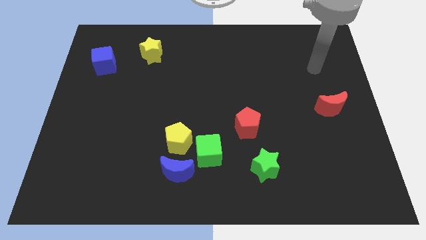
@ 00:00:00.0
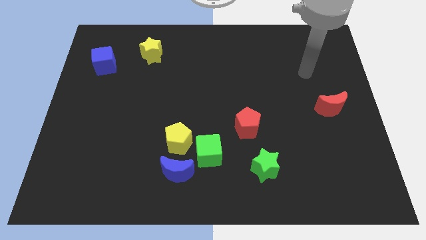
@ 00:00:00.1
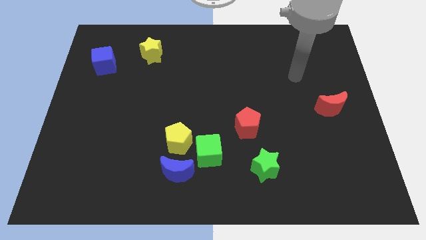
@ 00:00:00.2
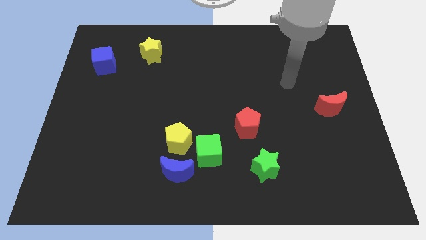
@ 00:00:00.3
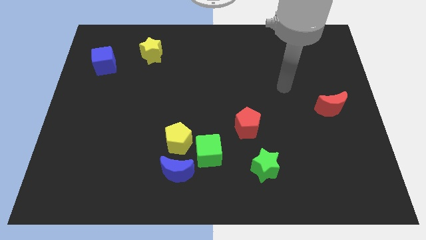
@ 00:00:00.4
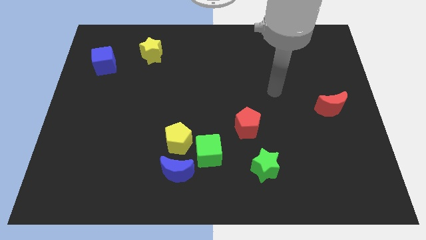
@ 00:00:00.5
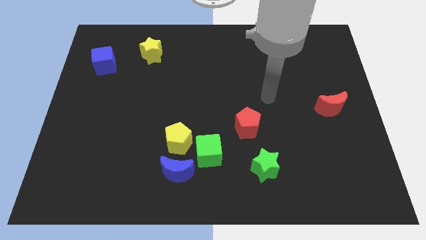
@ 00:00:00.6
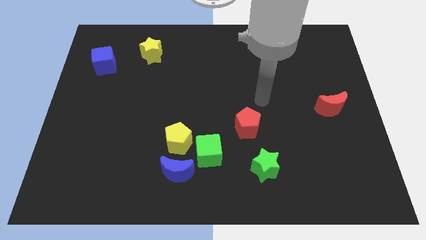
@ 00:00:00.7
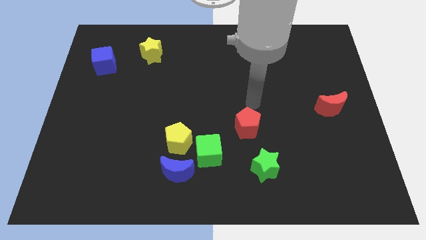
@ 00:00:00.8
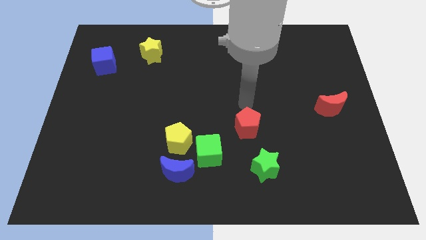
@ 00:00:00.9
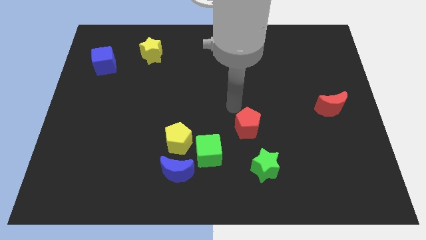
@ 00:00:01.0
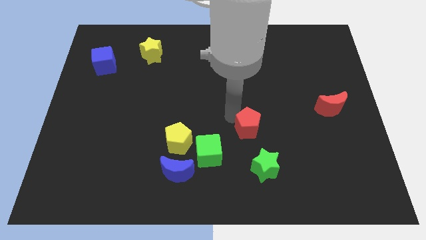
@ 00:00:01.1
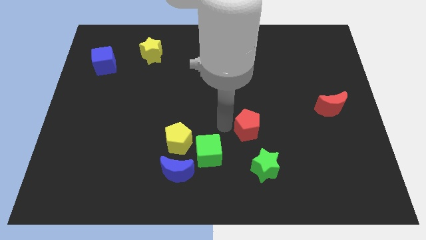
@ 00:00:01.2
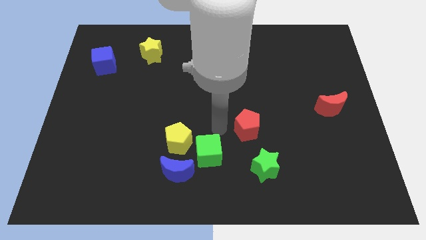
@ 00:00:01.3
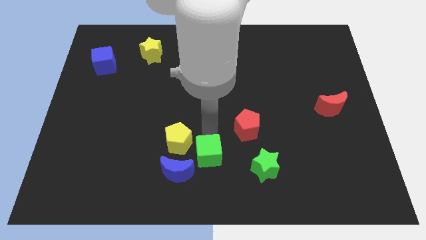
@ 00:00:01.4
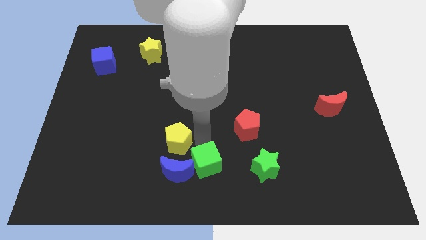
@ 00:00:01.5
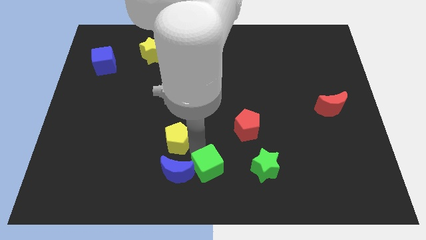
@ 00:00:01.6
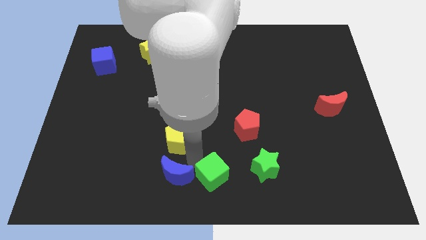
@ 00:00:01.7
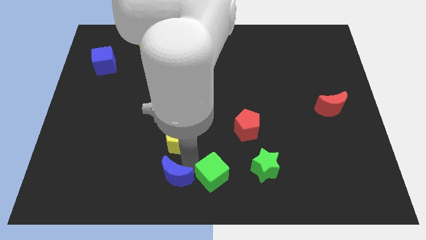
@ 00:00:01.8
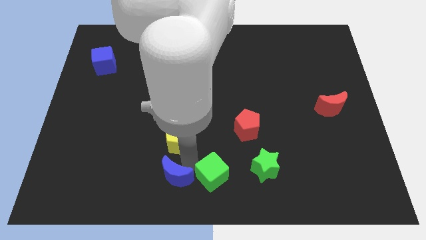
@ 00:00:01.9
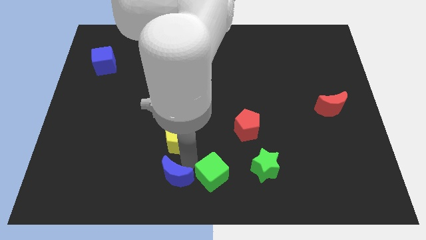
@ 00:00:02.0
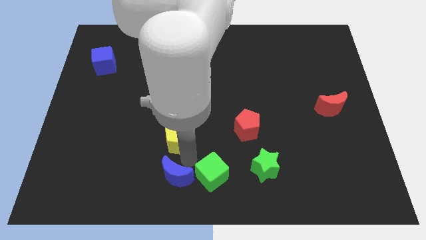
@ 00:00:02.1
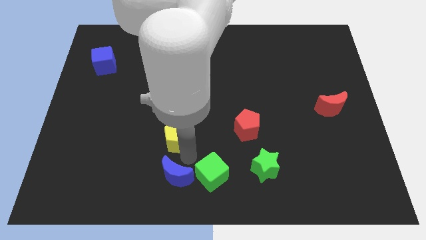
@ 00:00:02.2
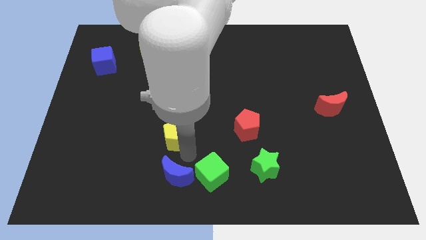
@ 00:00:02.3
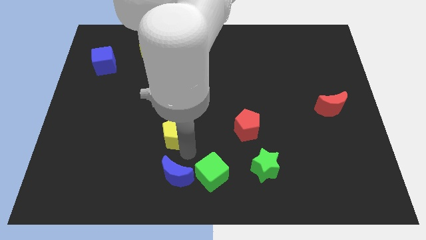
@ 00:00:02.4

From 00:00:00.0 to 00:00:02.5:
move the yellow pentagon away from the green cube and blue moon

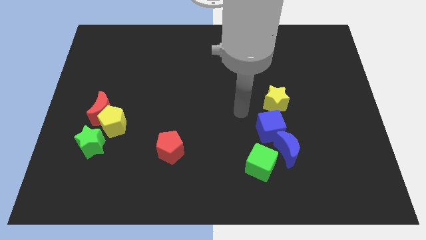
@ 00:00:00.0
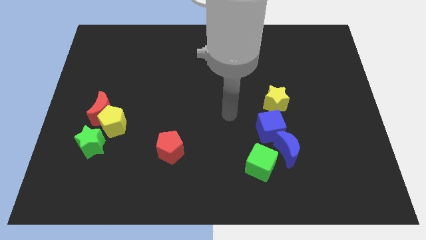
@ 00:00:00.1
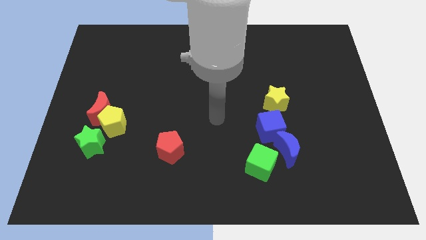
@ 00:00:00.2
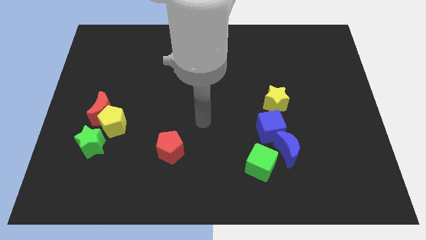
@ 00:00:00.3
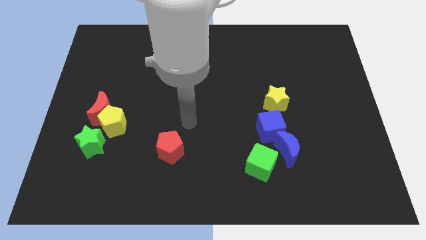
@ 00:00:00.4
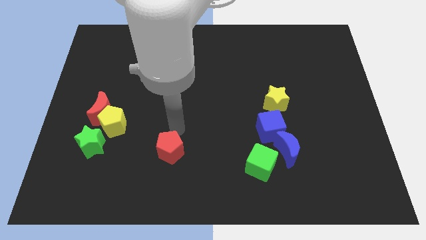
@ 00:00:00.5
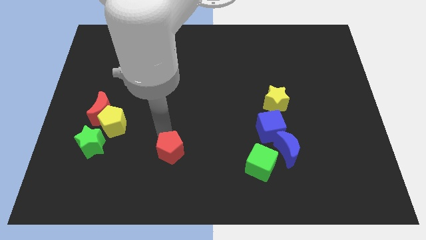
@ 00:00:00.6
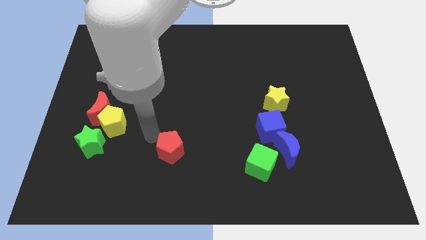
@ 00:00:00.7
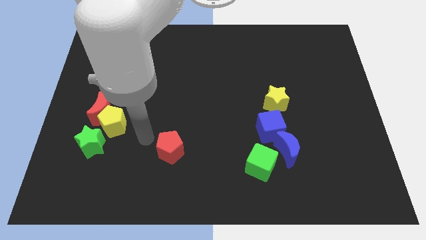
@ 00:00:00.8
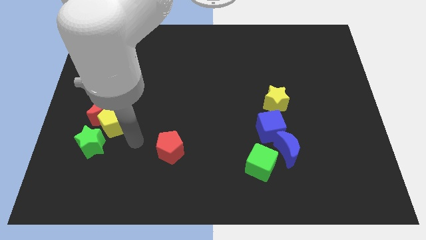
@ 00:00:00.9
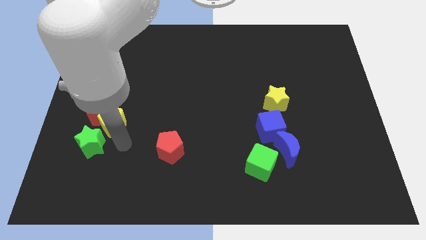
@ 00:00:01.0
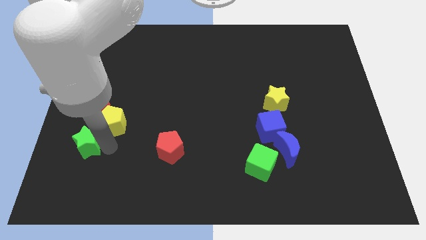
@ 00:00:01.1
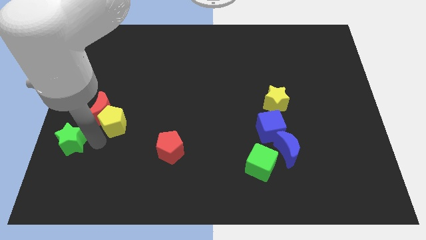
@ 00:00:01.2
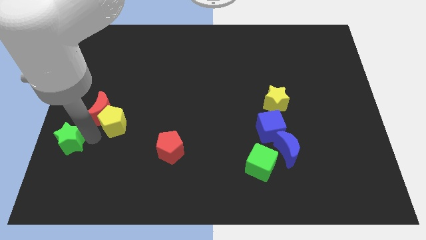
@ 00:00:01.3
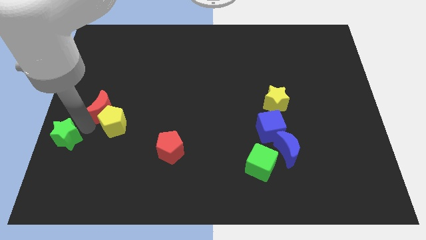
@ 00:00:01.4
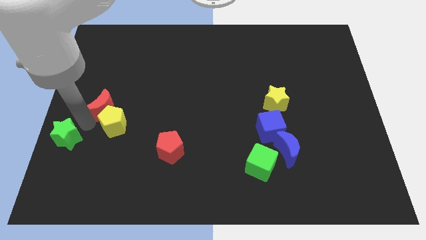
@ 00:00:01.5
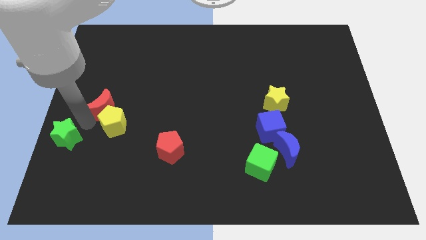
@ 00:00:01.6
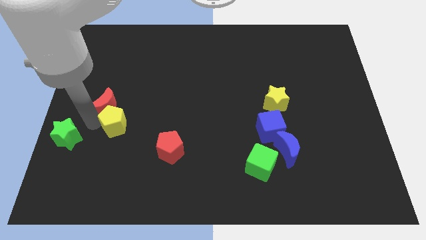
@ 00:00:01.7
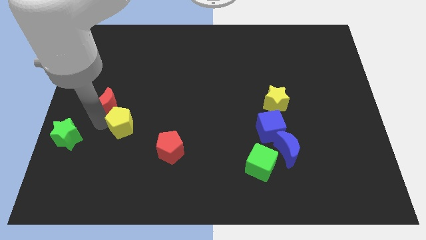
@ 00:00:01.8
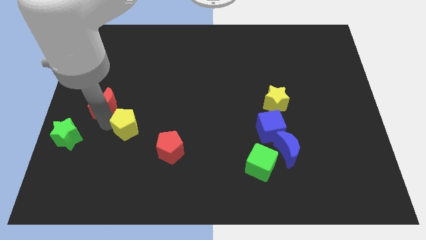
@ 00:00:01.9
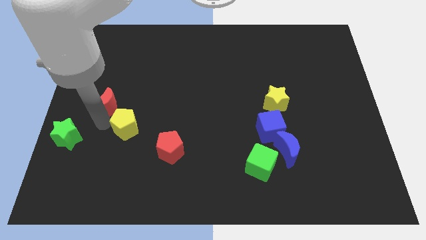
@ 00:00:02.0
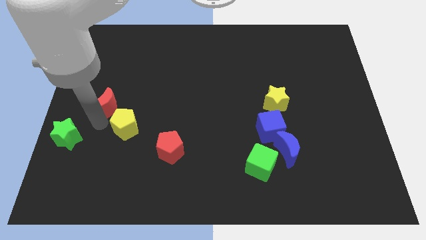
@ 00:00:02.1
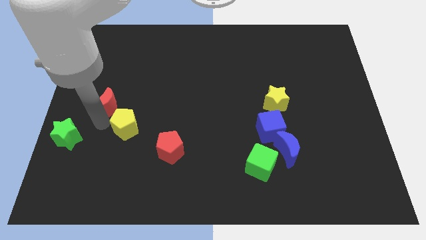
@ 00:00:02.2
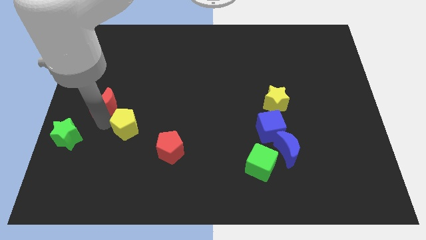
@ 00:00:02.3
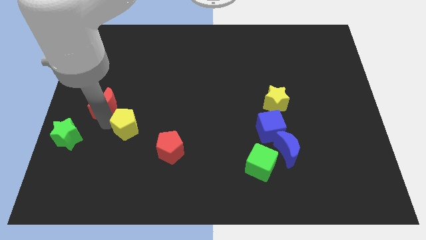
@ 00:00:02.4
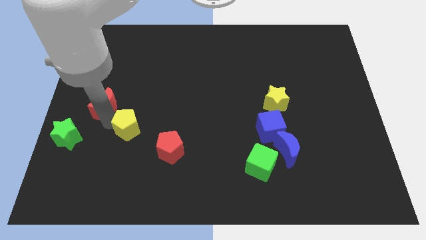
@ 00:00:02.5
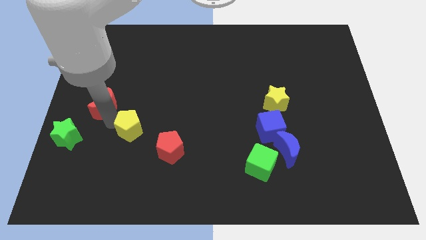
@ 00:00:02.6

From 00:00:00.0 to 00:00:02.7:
move the yellow pentagon away from the red moon and green star

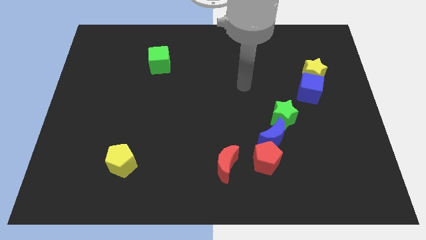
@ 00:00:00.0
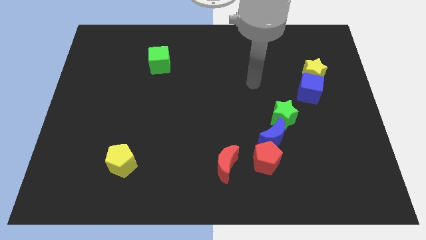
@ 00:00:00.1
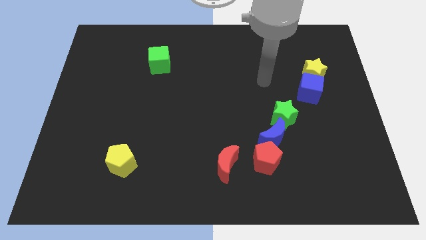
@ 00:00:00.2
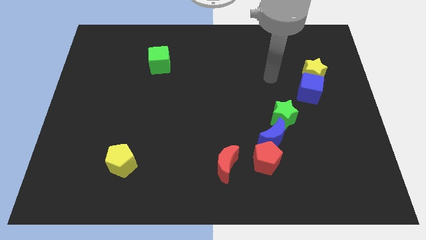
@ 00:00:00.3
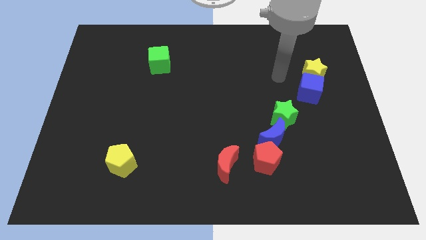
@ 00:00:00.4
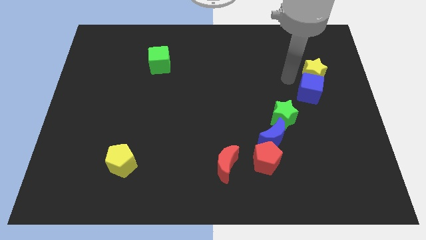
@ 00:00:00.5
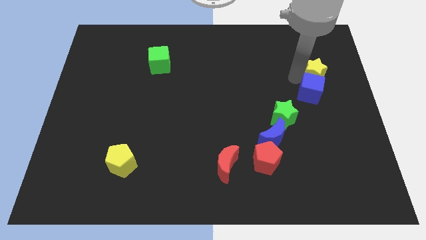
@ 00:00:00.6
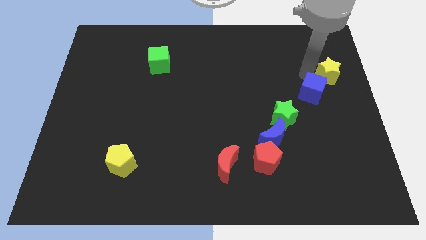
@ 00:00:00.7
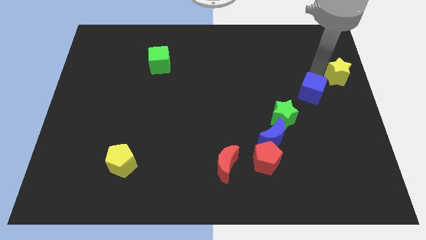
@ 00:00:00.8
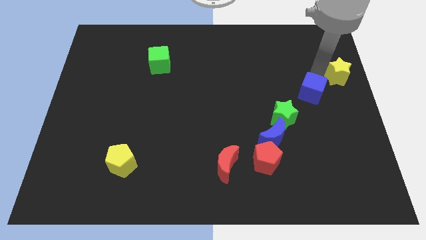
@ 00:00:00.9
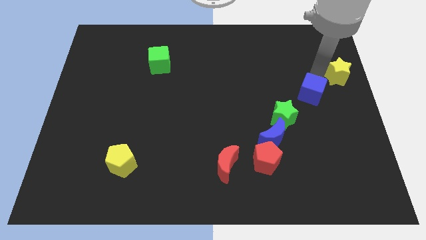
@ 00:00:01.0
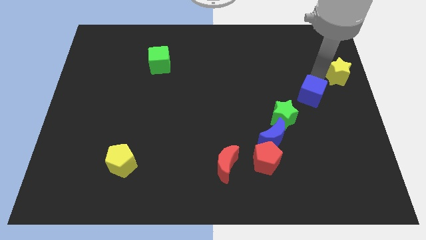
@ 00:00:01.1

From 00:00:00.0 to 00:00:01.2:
separate the blue cube from the yellow star

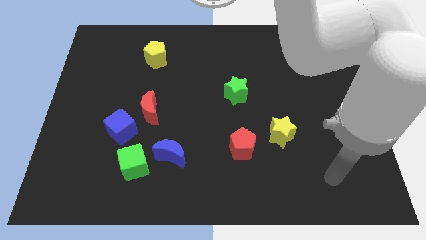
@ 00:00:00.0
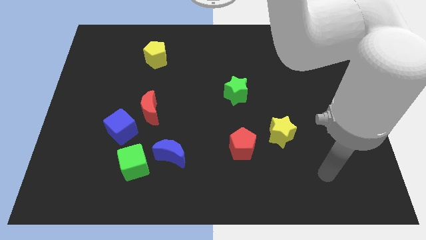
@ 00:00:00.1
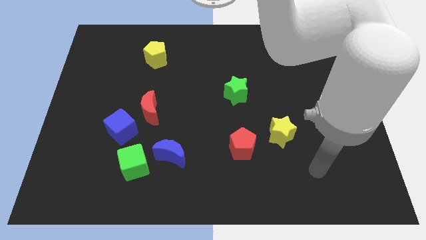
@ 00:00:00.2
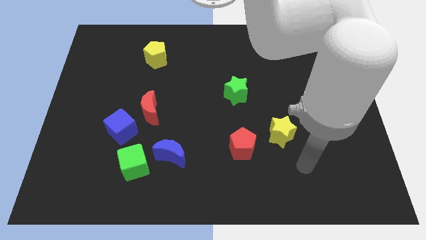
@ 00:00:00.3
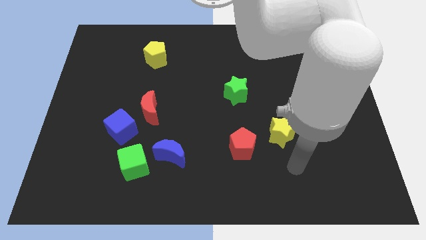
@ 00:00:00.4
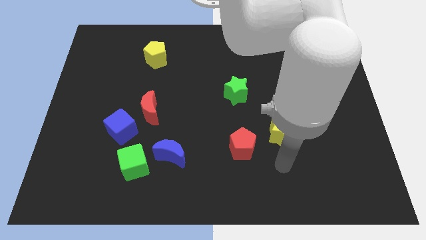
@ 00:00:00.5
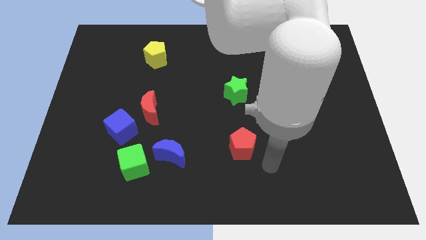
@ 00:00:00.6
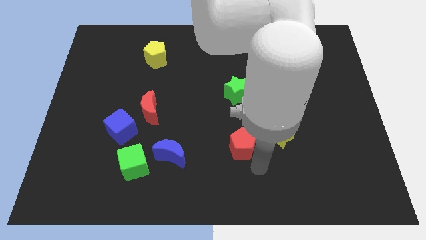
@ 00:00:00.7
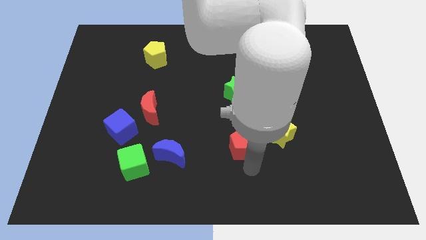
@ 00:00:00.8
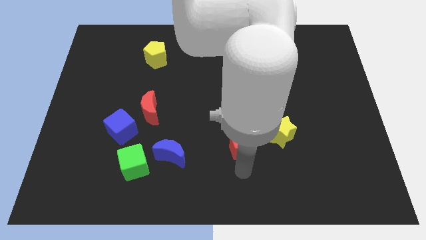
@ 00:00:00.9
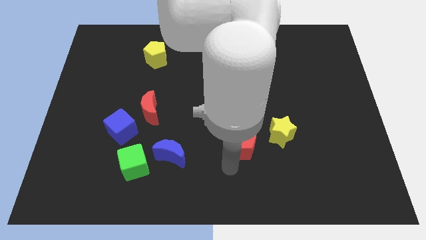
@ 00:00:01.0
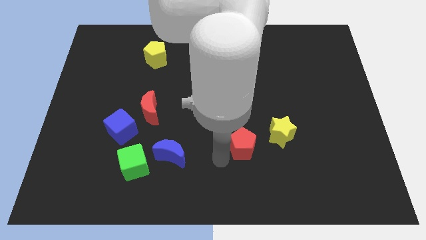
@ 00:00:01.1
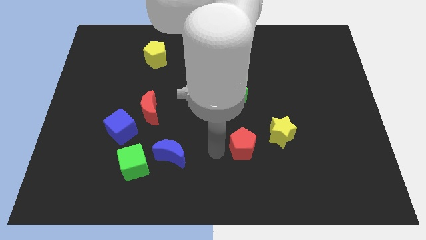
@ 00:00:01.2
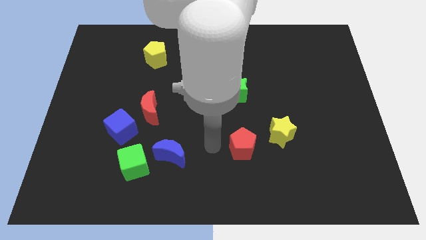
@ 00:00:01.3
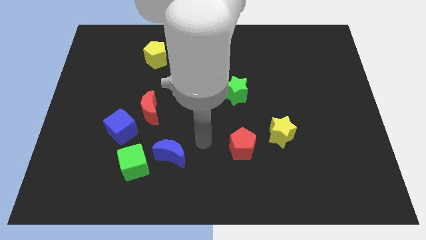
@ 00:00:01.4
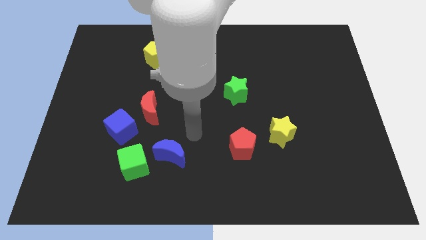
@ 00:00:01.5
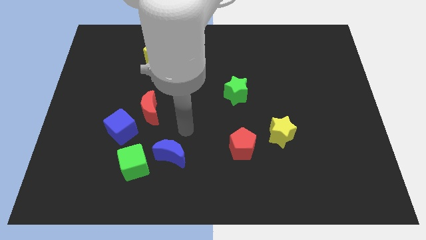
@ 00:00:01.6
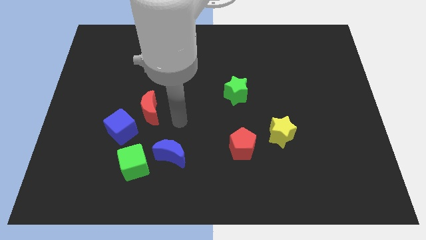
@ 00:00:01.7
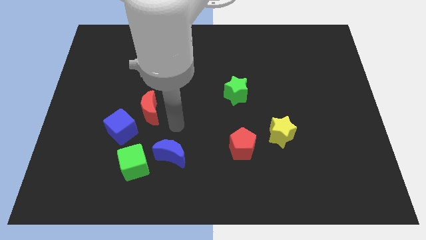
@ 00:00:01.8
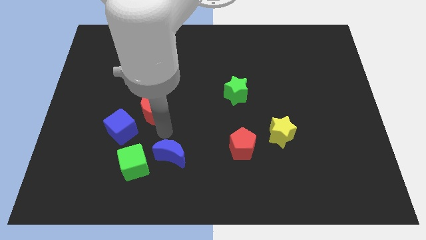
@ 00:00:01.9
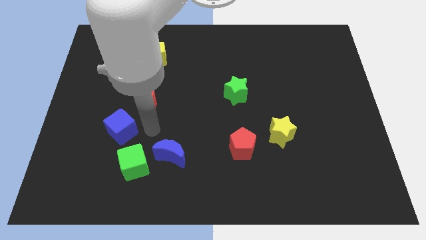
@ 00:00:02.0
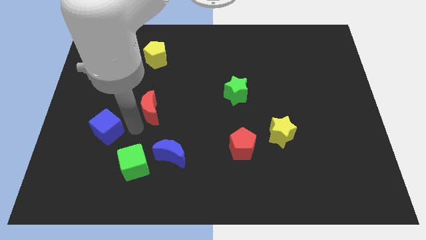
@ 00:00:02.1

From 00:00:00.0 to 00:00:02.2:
move the red moon away from the blue cube

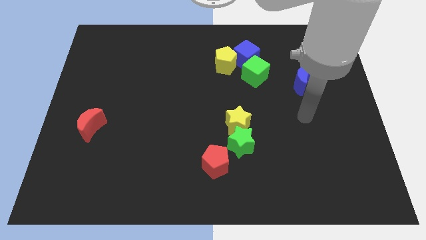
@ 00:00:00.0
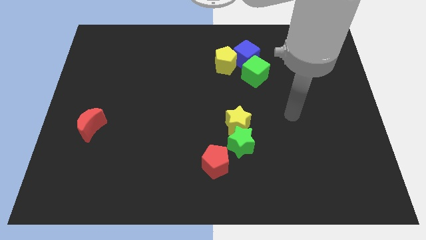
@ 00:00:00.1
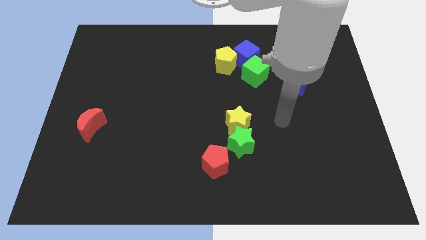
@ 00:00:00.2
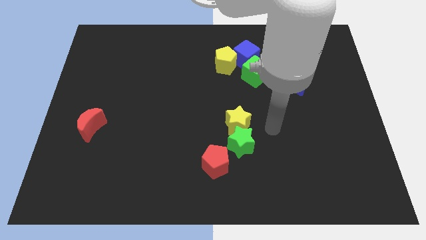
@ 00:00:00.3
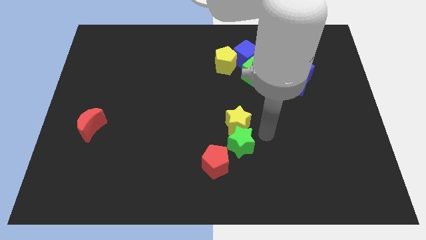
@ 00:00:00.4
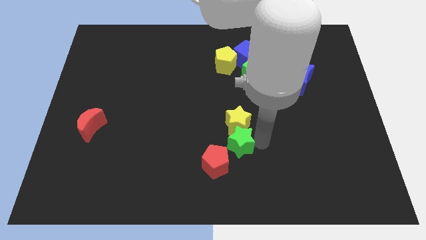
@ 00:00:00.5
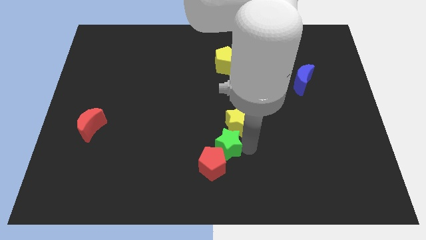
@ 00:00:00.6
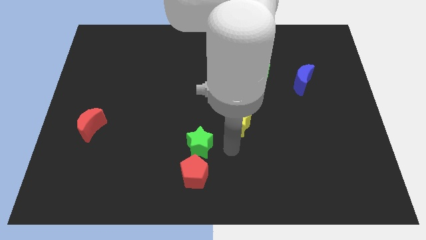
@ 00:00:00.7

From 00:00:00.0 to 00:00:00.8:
separate the yellow star from the green star
